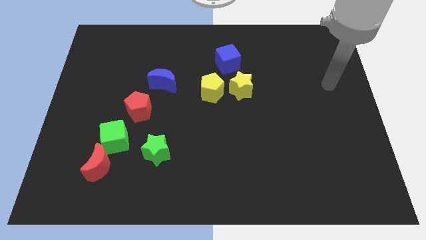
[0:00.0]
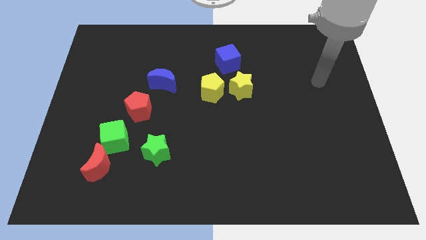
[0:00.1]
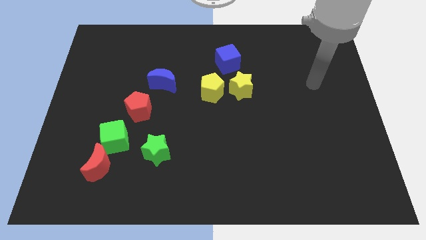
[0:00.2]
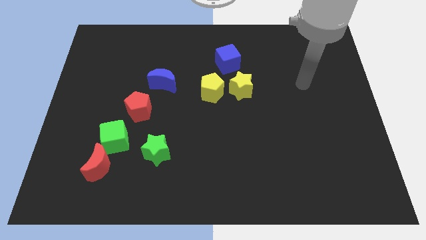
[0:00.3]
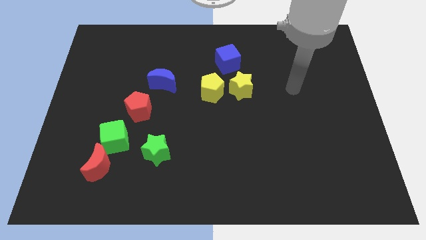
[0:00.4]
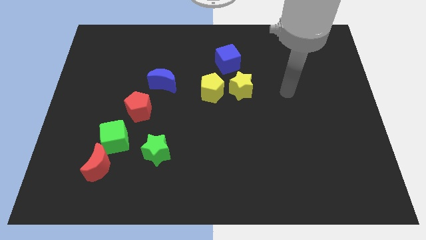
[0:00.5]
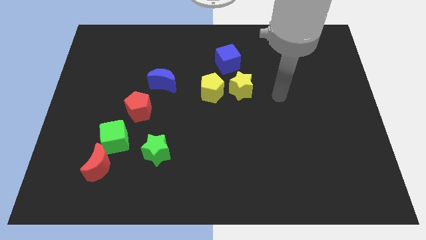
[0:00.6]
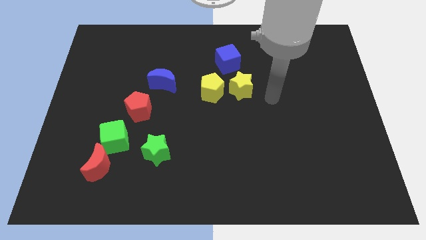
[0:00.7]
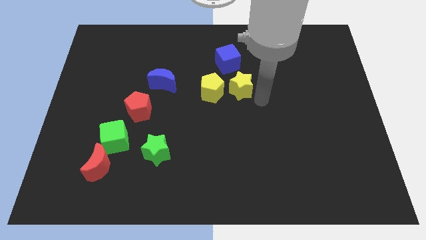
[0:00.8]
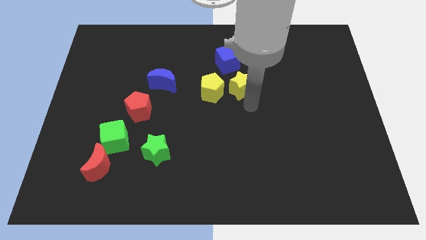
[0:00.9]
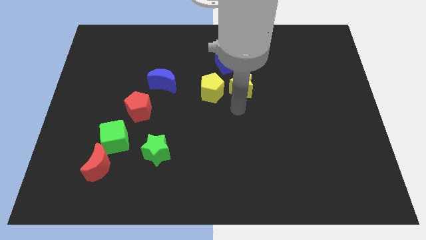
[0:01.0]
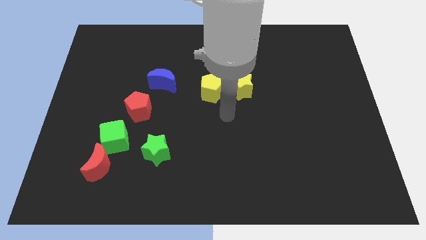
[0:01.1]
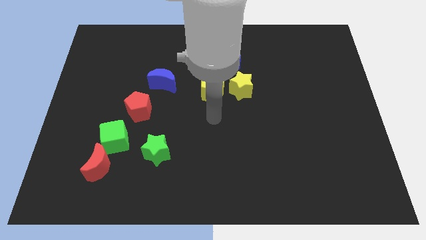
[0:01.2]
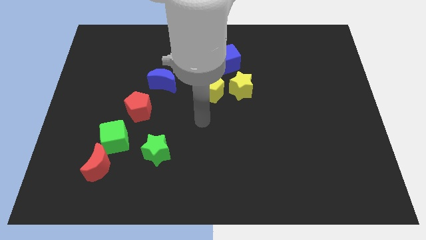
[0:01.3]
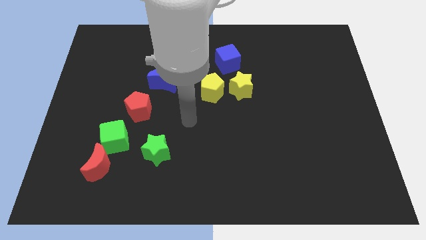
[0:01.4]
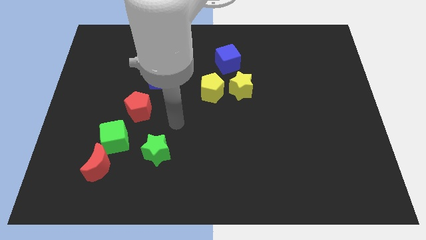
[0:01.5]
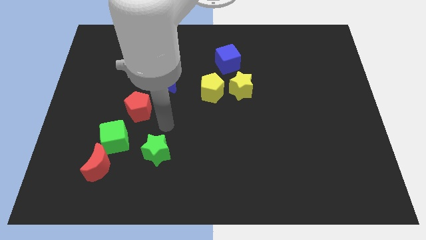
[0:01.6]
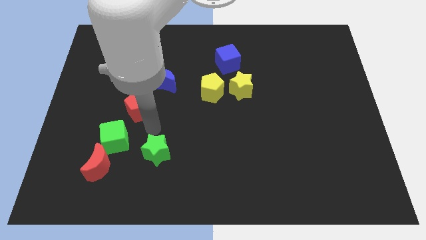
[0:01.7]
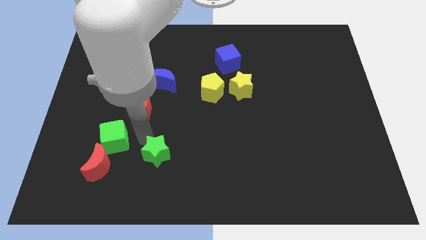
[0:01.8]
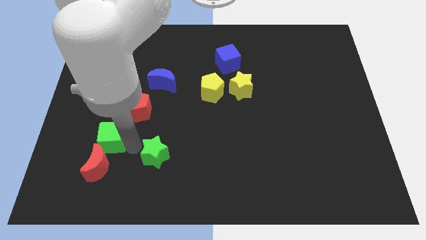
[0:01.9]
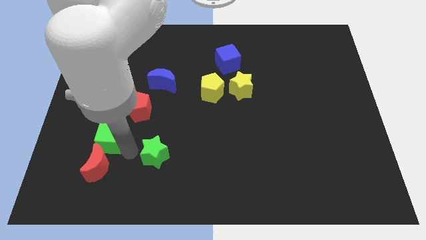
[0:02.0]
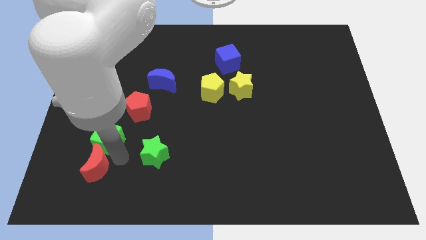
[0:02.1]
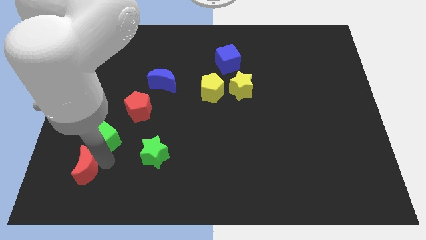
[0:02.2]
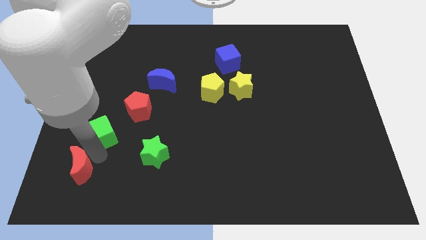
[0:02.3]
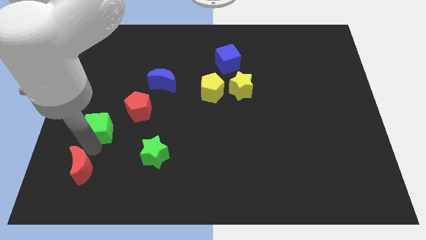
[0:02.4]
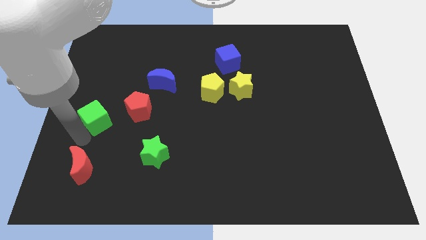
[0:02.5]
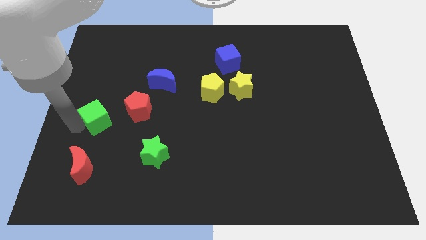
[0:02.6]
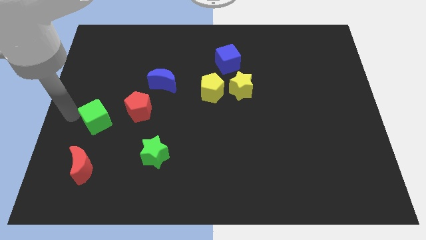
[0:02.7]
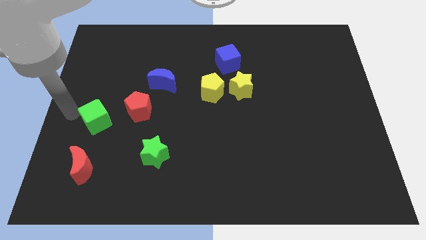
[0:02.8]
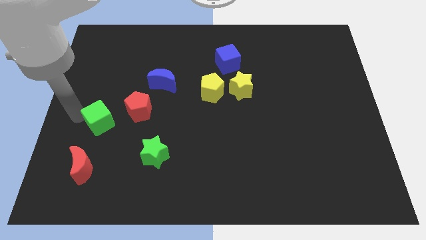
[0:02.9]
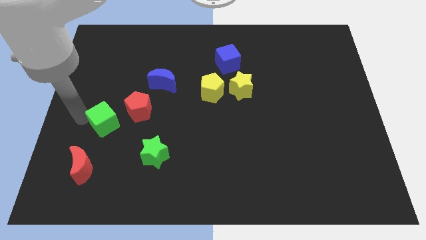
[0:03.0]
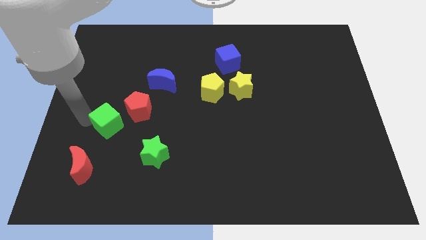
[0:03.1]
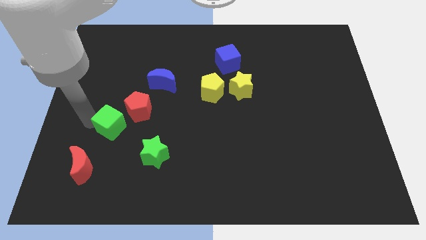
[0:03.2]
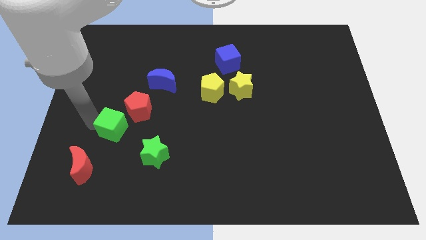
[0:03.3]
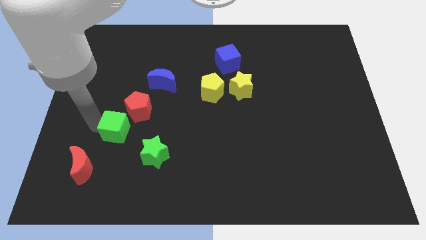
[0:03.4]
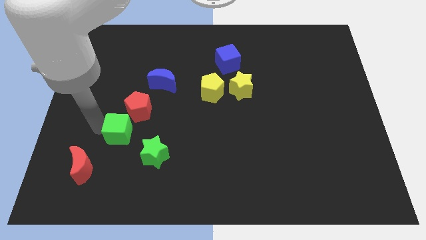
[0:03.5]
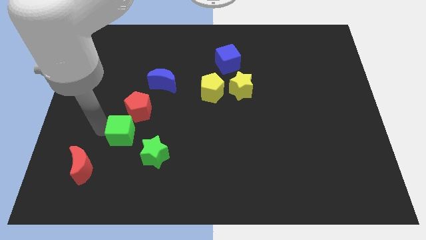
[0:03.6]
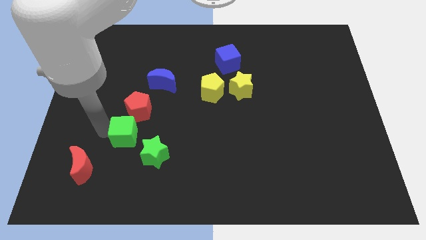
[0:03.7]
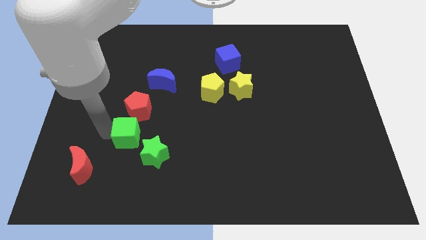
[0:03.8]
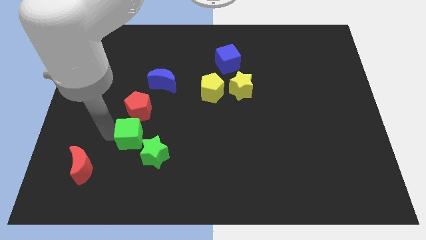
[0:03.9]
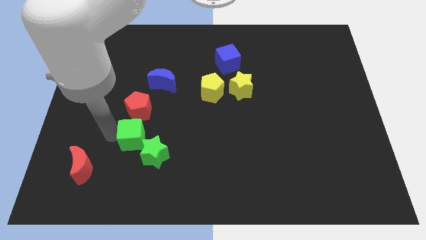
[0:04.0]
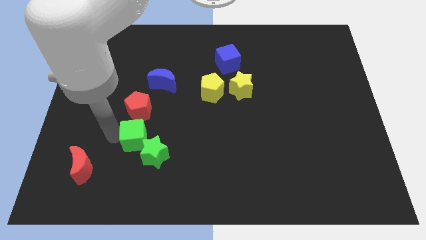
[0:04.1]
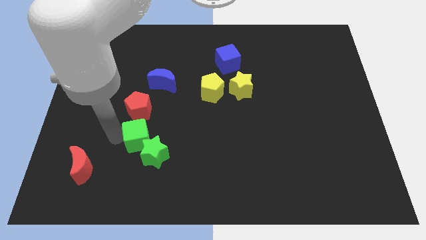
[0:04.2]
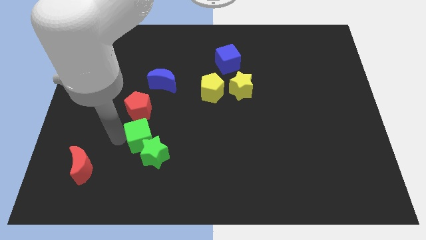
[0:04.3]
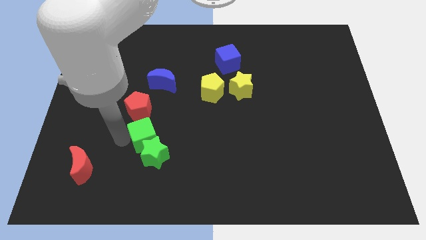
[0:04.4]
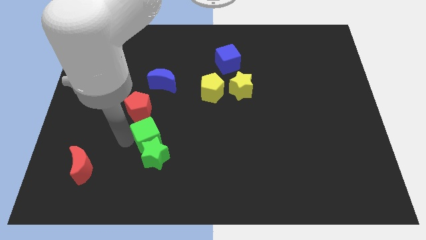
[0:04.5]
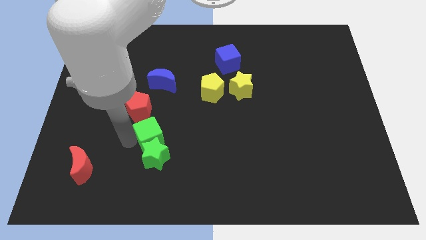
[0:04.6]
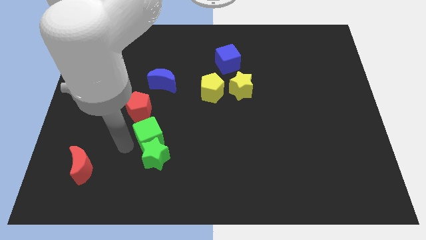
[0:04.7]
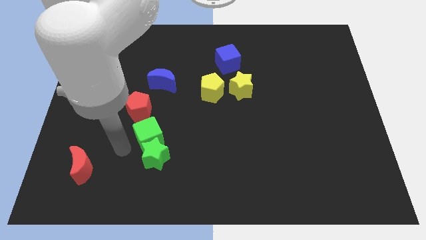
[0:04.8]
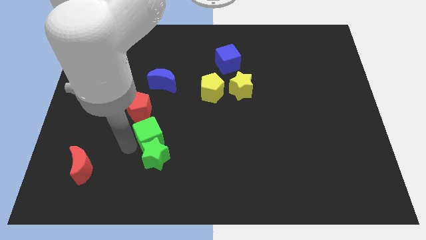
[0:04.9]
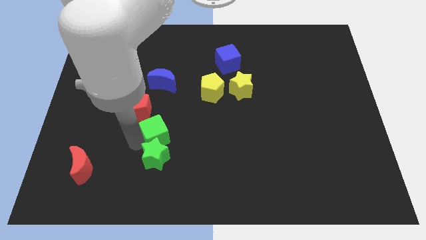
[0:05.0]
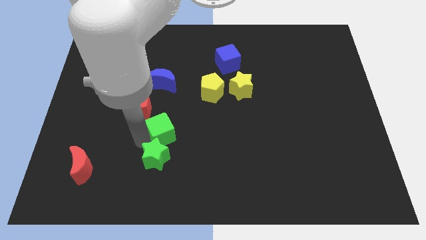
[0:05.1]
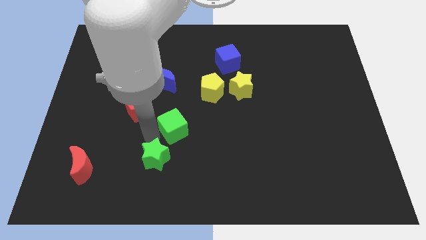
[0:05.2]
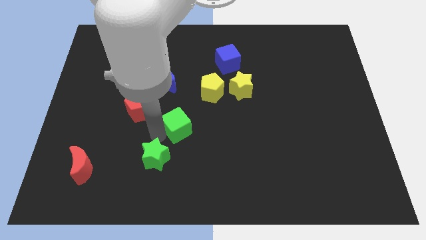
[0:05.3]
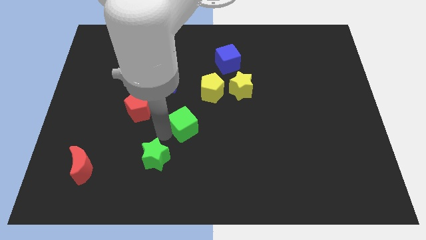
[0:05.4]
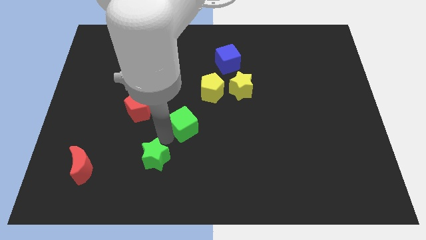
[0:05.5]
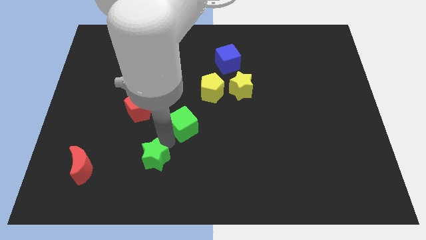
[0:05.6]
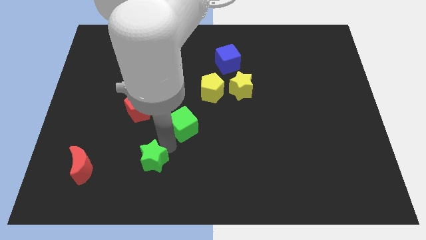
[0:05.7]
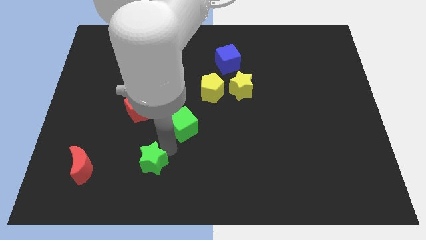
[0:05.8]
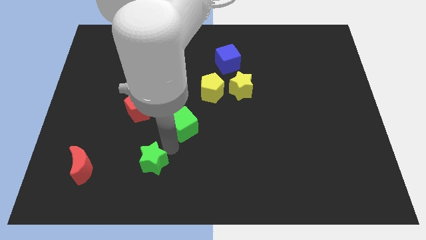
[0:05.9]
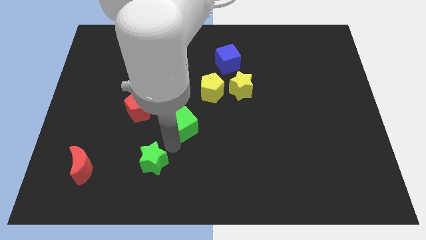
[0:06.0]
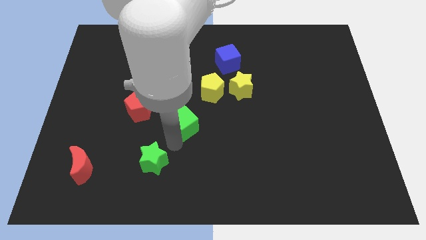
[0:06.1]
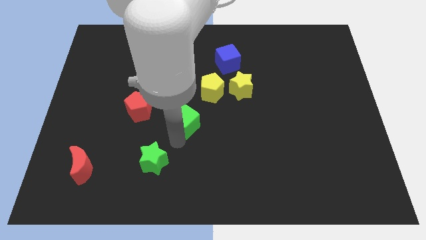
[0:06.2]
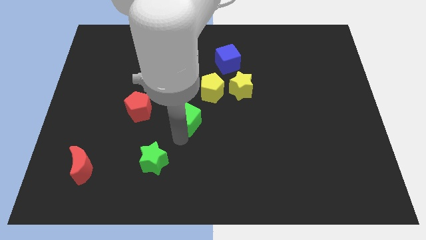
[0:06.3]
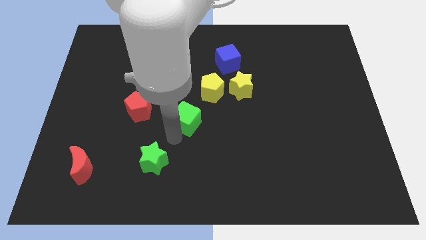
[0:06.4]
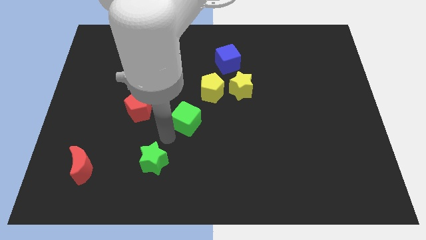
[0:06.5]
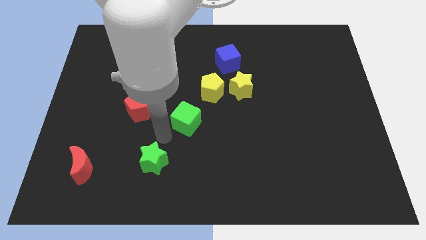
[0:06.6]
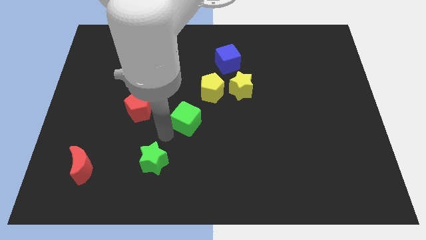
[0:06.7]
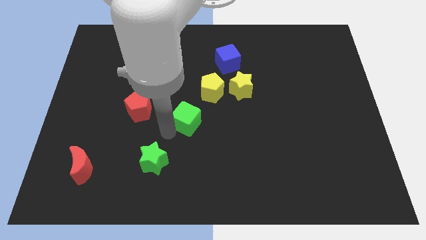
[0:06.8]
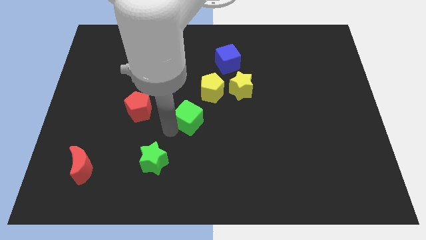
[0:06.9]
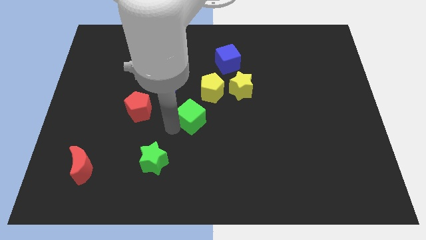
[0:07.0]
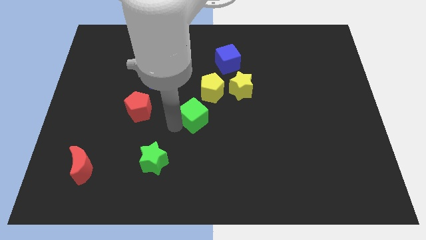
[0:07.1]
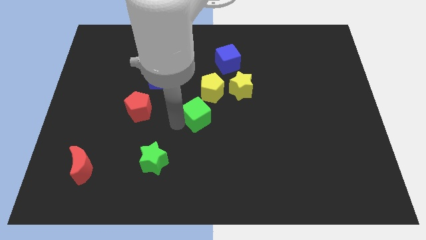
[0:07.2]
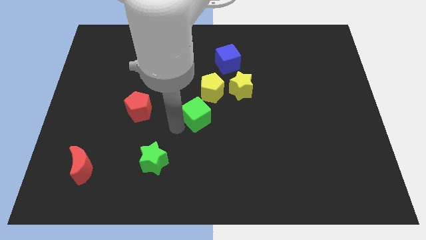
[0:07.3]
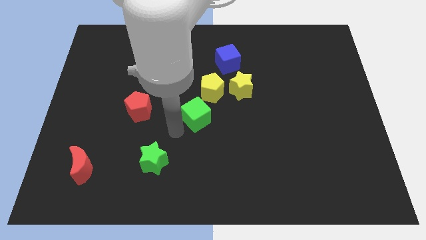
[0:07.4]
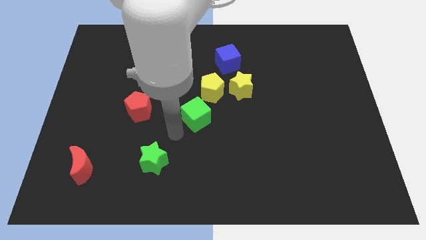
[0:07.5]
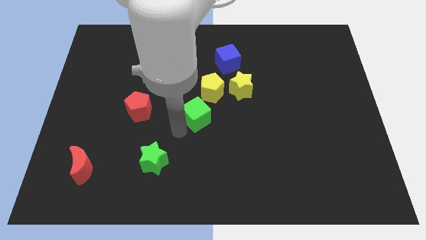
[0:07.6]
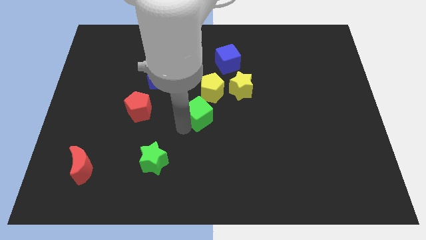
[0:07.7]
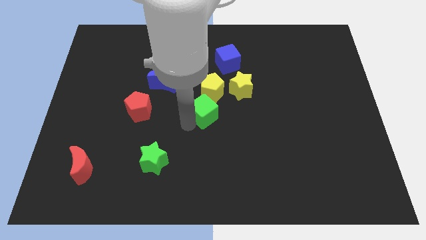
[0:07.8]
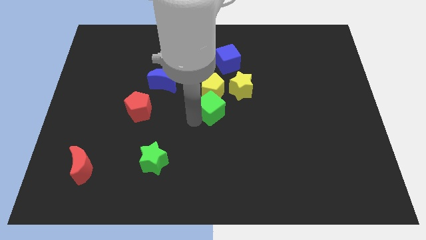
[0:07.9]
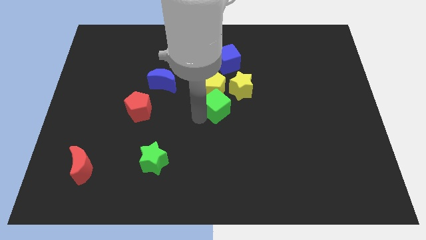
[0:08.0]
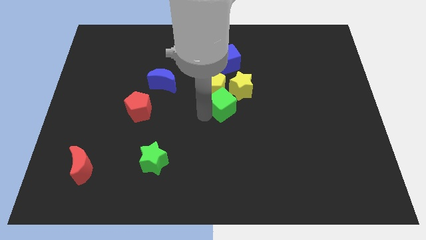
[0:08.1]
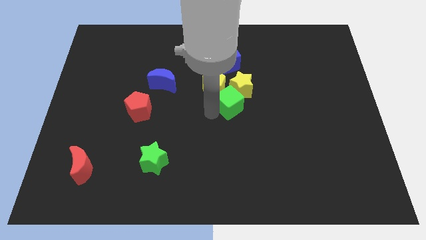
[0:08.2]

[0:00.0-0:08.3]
push the green cube next to the yellow star
